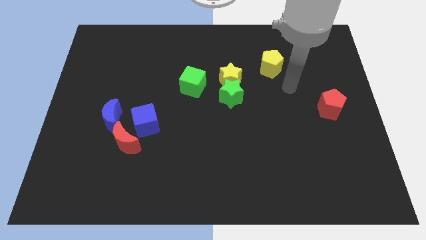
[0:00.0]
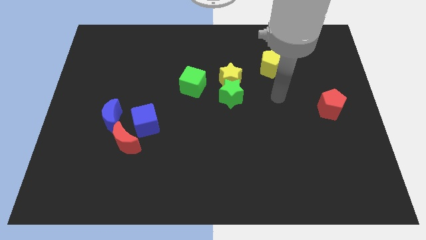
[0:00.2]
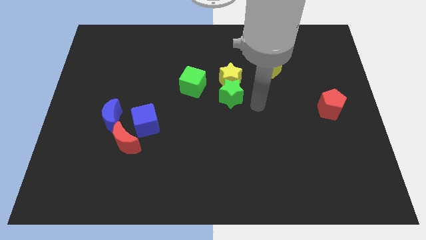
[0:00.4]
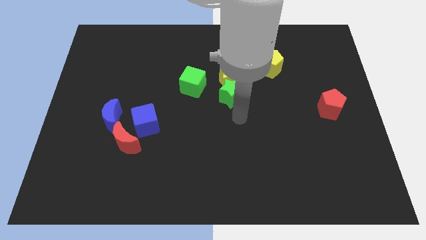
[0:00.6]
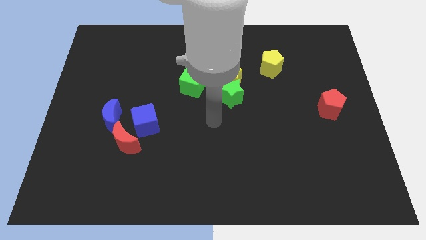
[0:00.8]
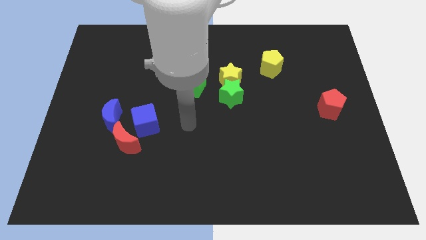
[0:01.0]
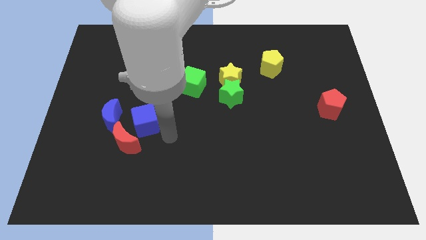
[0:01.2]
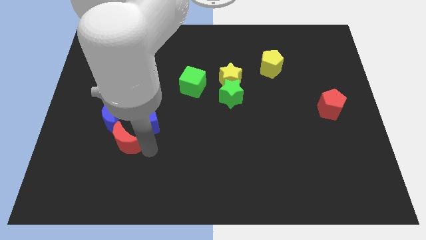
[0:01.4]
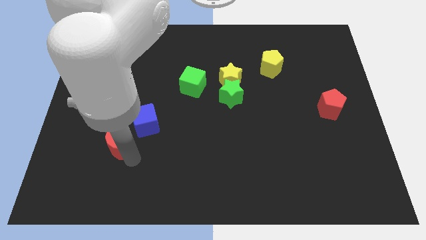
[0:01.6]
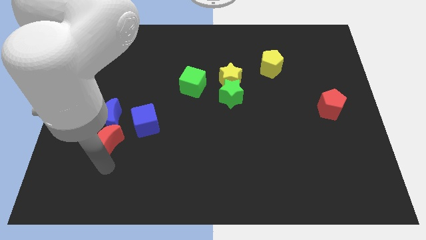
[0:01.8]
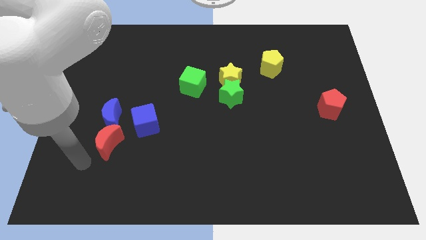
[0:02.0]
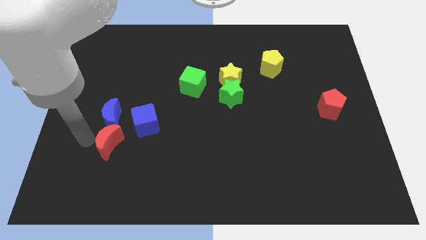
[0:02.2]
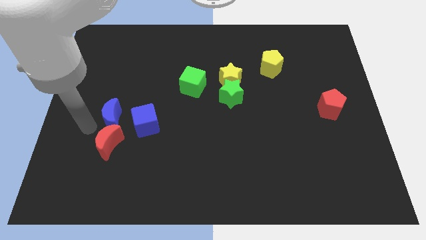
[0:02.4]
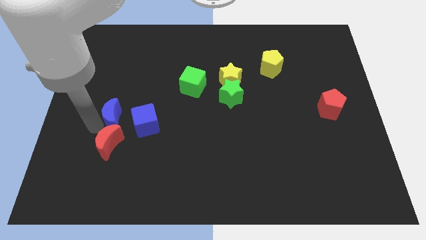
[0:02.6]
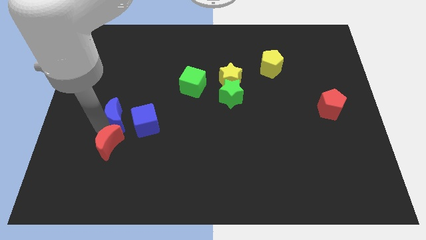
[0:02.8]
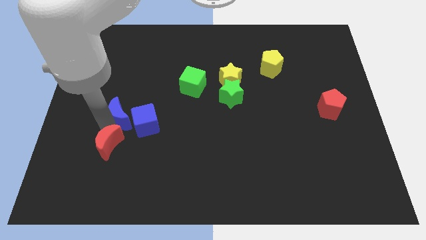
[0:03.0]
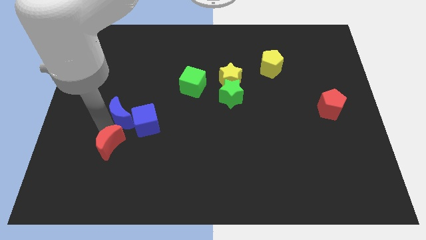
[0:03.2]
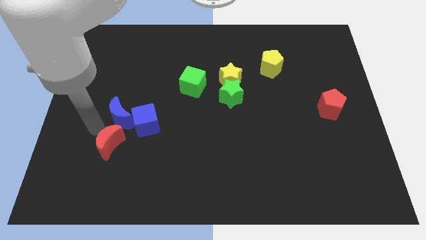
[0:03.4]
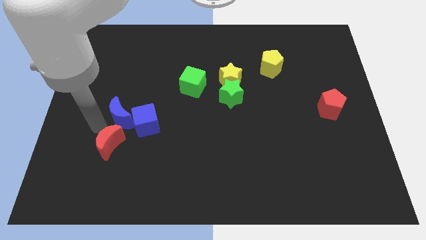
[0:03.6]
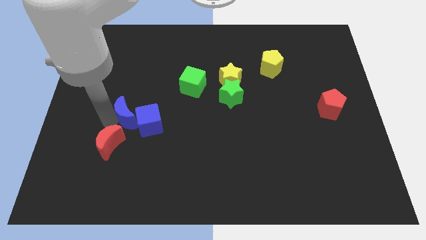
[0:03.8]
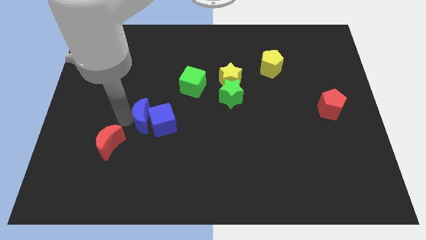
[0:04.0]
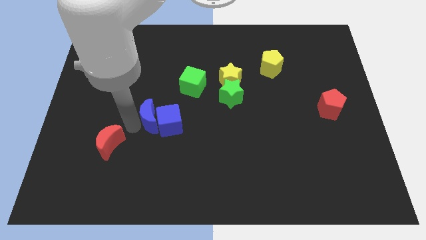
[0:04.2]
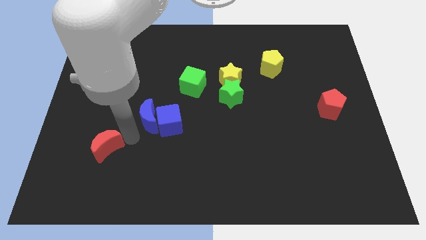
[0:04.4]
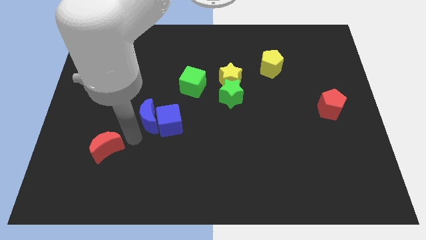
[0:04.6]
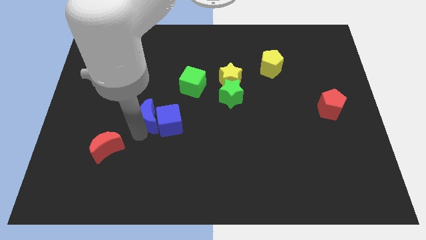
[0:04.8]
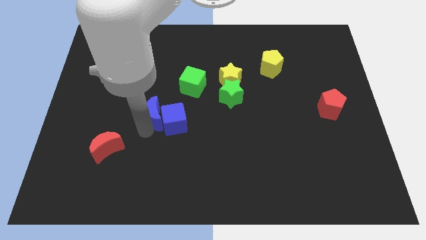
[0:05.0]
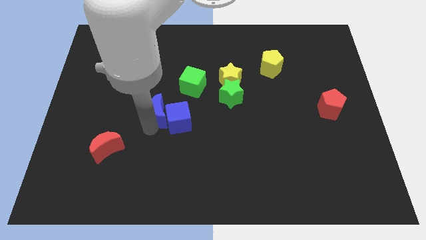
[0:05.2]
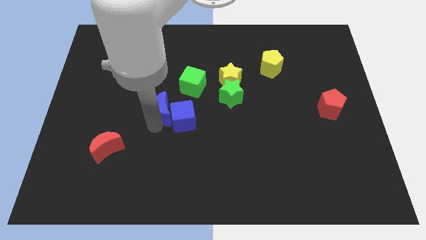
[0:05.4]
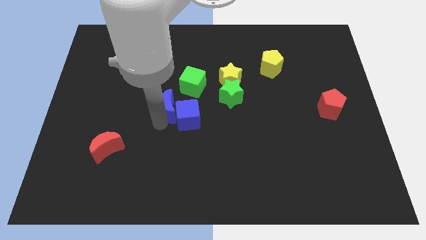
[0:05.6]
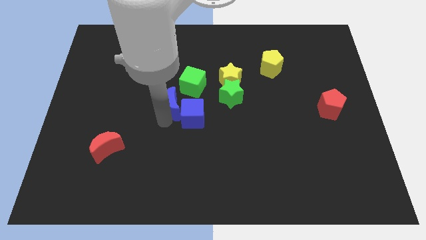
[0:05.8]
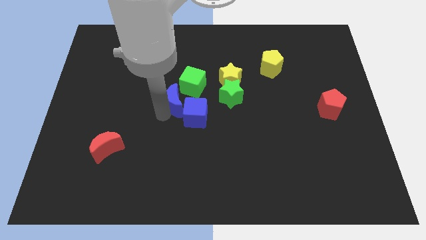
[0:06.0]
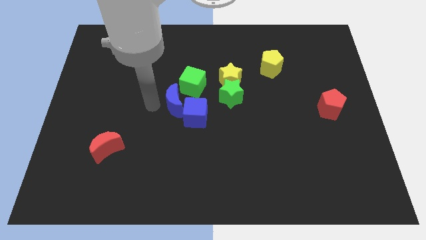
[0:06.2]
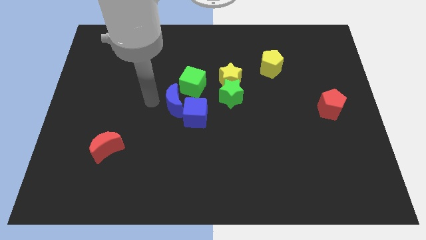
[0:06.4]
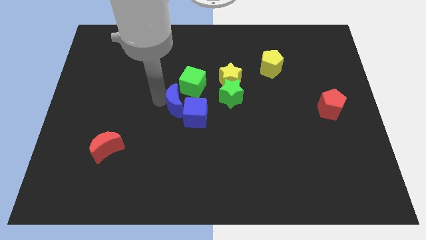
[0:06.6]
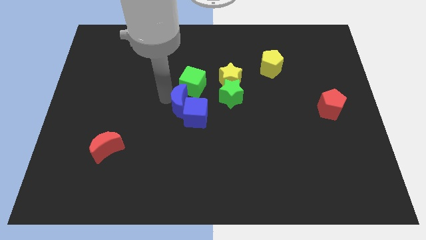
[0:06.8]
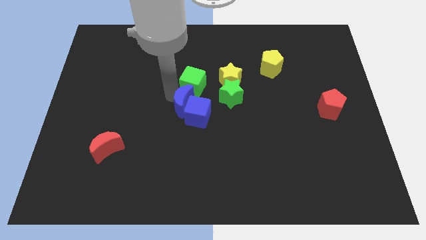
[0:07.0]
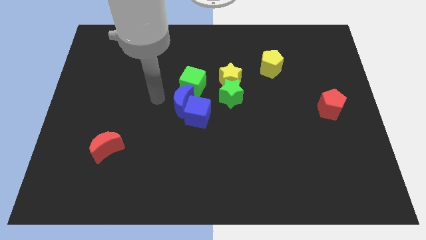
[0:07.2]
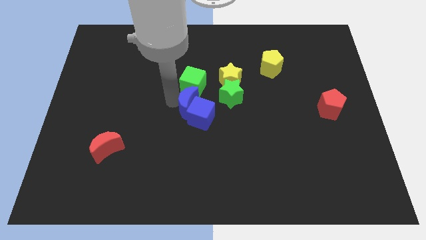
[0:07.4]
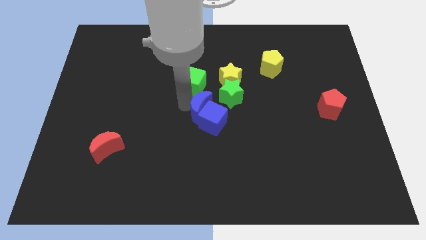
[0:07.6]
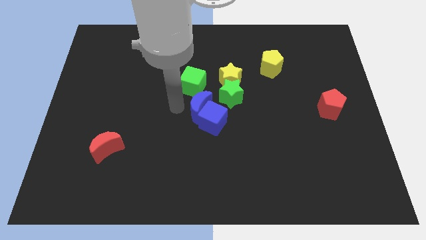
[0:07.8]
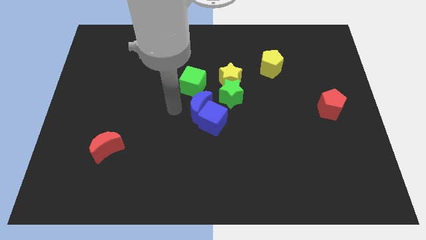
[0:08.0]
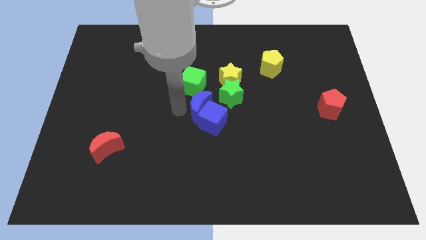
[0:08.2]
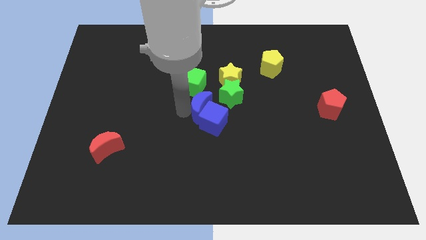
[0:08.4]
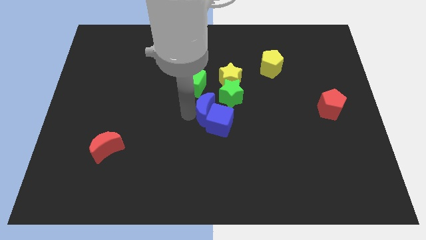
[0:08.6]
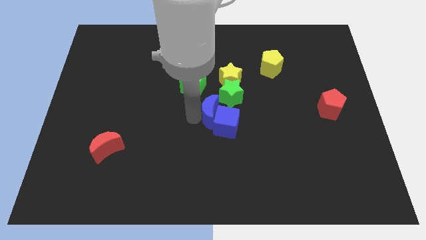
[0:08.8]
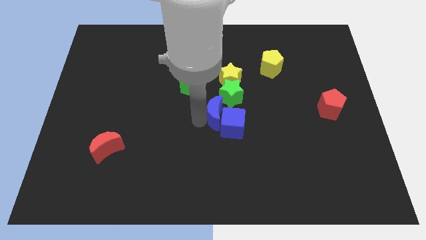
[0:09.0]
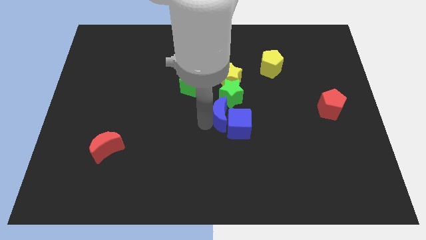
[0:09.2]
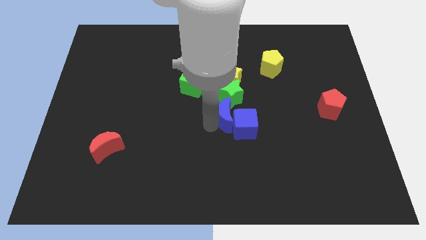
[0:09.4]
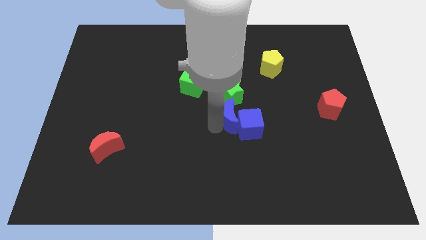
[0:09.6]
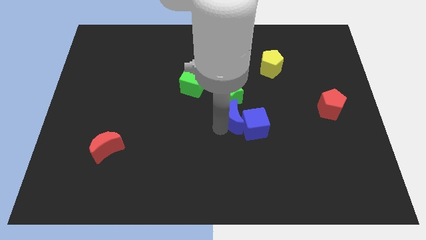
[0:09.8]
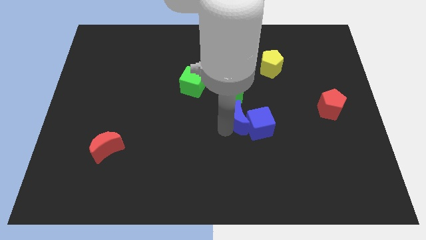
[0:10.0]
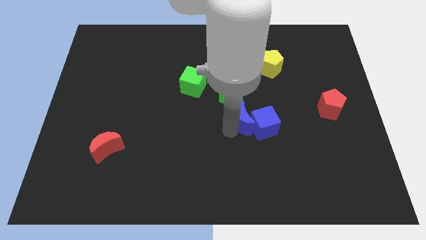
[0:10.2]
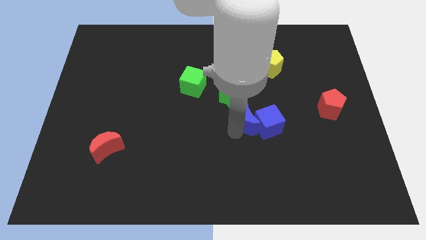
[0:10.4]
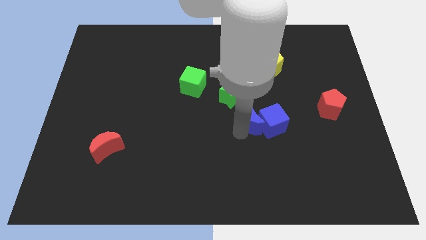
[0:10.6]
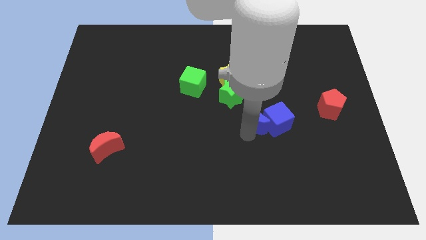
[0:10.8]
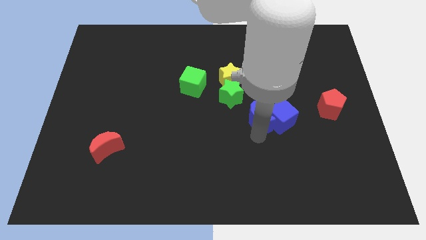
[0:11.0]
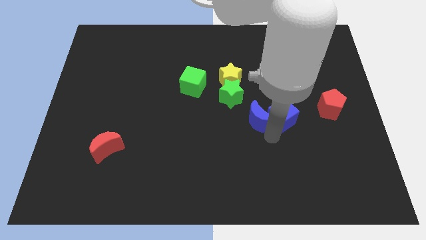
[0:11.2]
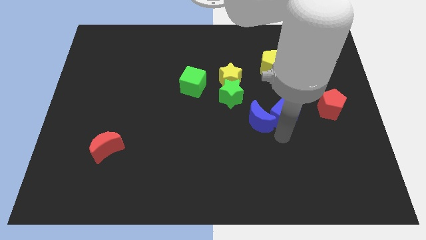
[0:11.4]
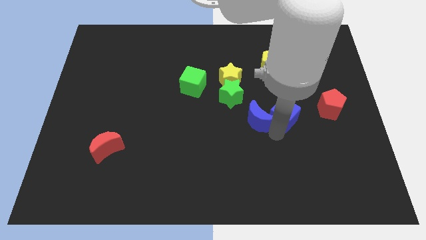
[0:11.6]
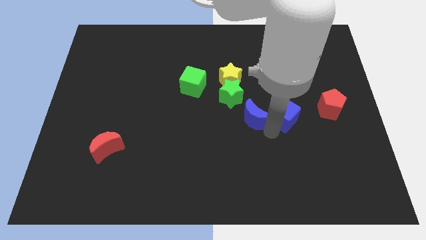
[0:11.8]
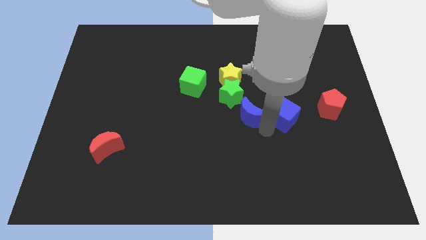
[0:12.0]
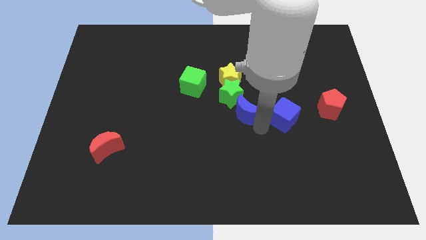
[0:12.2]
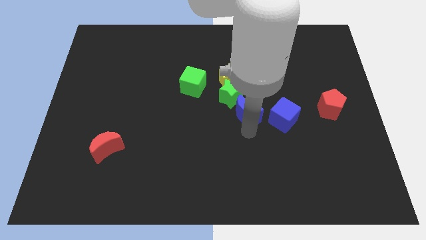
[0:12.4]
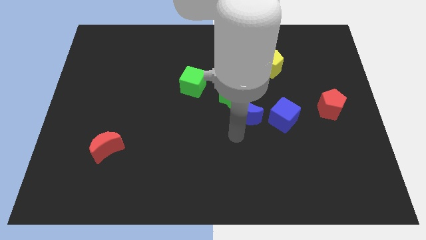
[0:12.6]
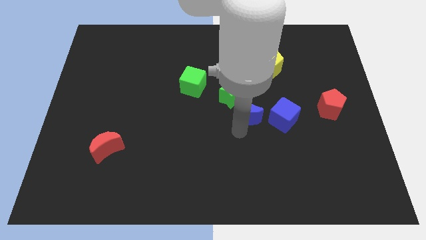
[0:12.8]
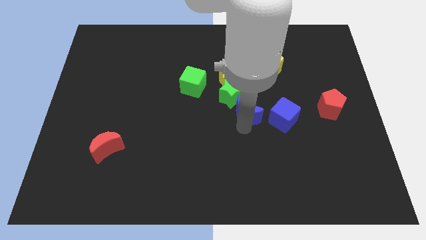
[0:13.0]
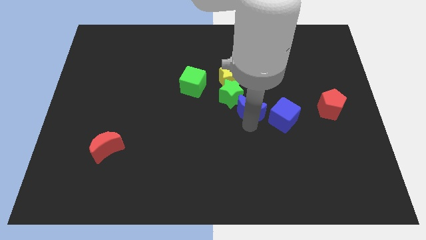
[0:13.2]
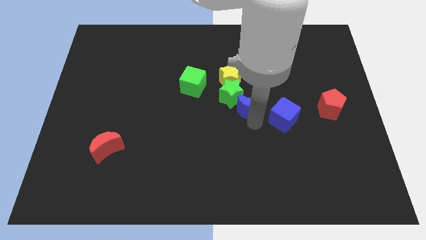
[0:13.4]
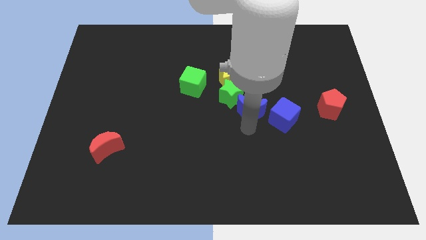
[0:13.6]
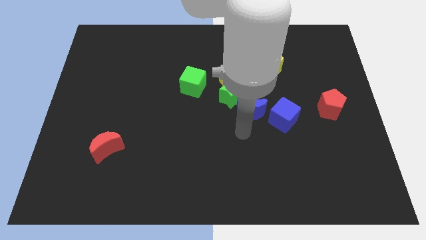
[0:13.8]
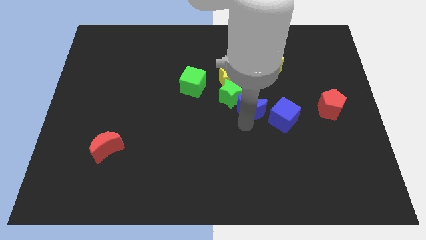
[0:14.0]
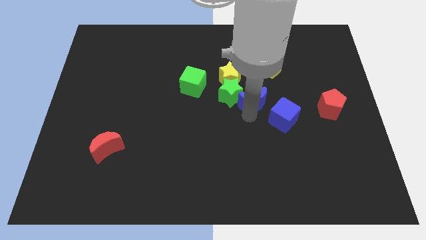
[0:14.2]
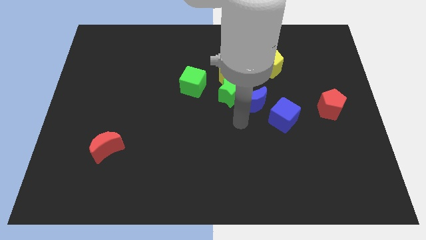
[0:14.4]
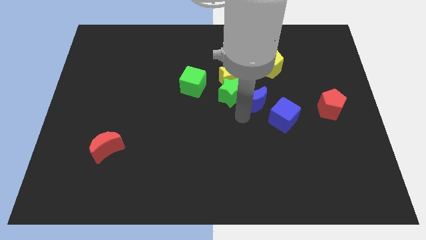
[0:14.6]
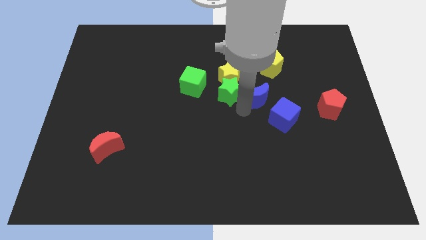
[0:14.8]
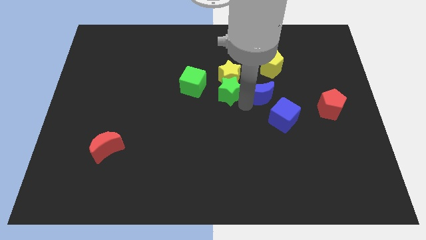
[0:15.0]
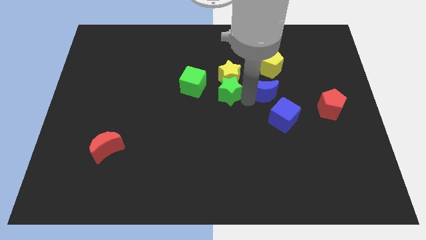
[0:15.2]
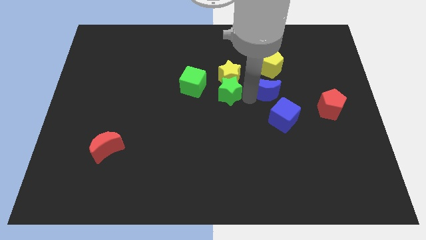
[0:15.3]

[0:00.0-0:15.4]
slide the blue moon to the right side of the yellow star
